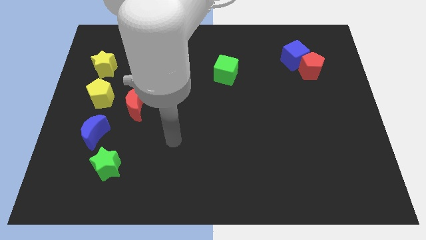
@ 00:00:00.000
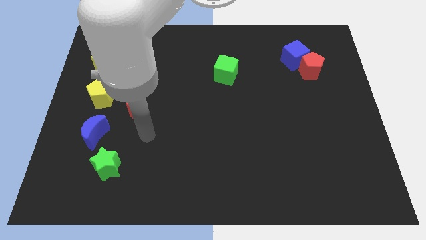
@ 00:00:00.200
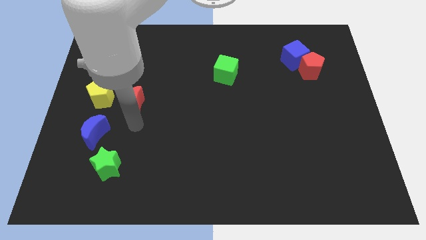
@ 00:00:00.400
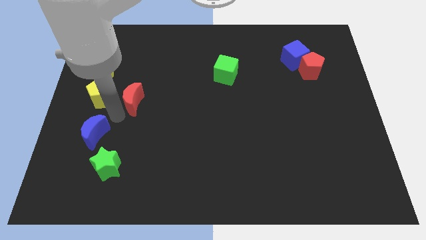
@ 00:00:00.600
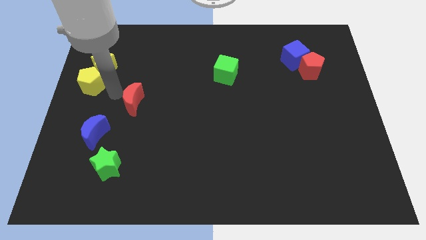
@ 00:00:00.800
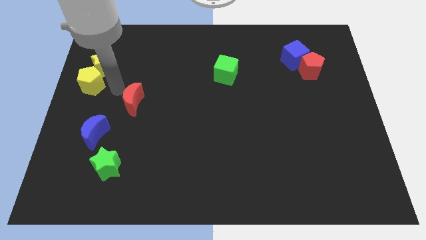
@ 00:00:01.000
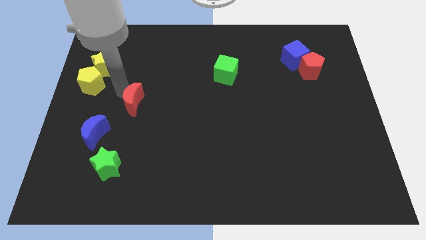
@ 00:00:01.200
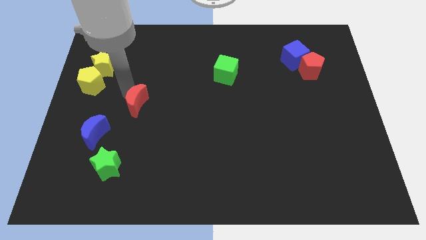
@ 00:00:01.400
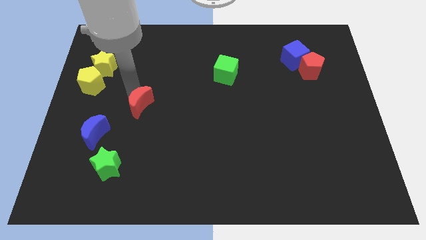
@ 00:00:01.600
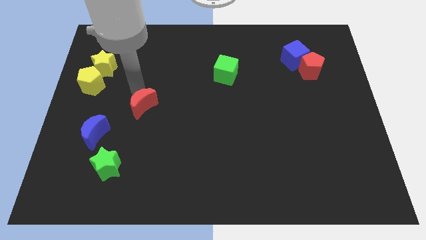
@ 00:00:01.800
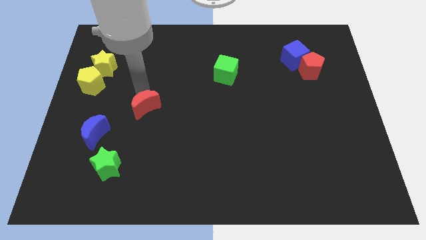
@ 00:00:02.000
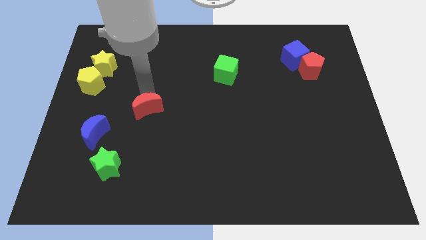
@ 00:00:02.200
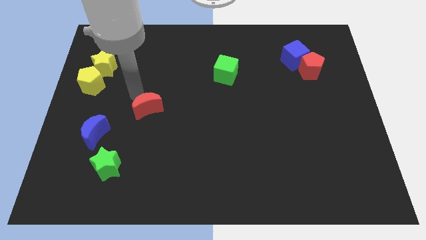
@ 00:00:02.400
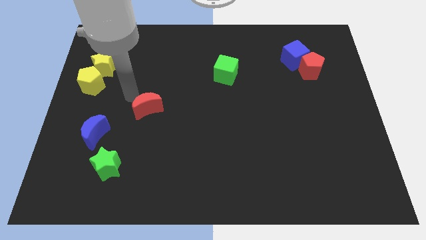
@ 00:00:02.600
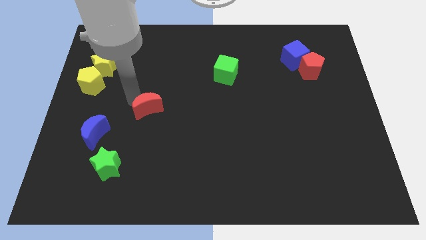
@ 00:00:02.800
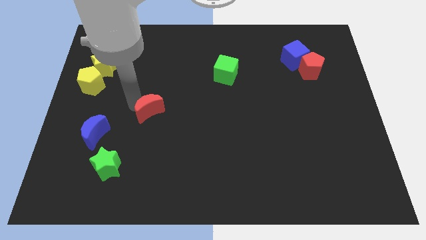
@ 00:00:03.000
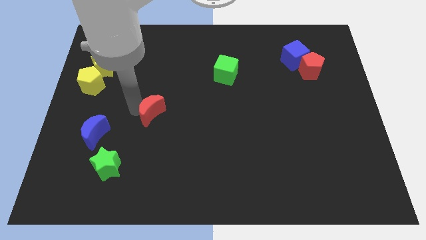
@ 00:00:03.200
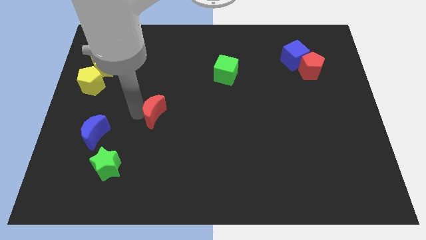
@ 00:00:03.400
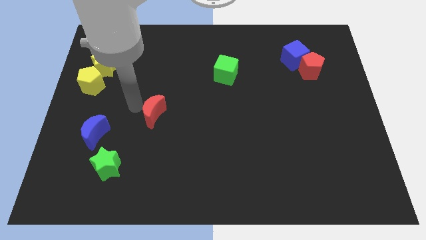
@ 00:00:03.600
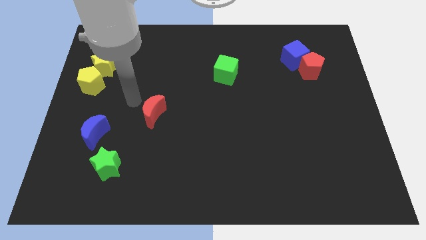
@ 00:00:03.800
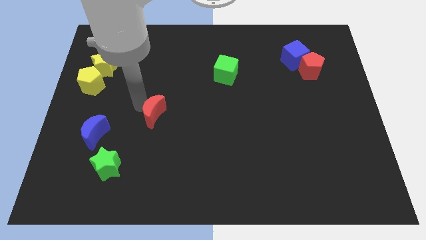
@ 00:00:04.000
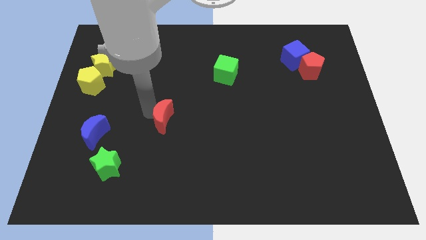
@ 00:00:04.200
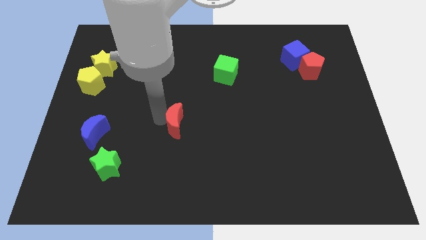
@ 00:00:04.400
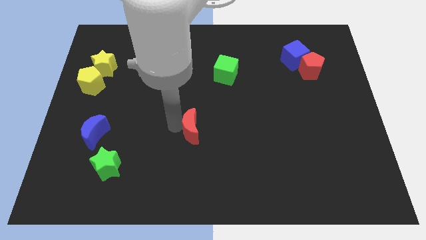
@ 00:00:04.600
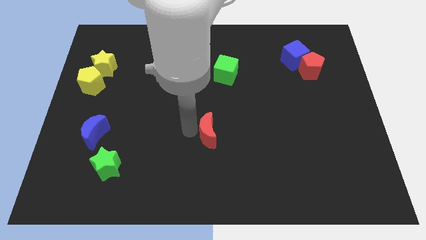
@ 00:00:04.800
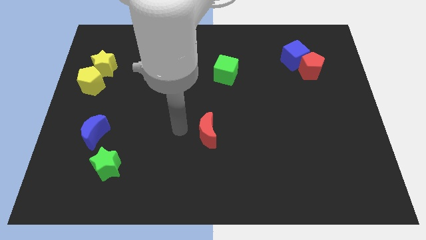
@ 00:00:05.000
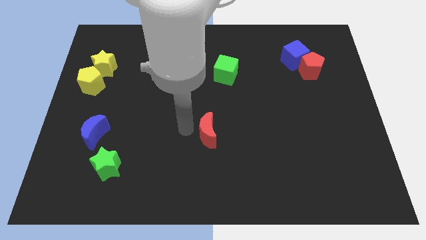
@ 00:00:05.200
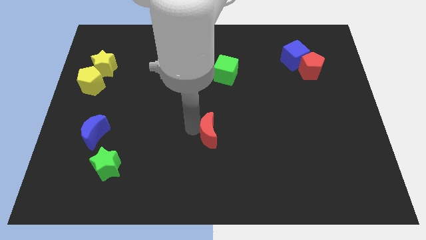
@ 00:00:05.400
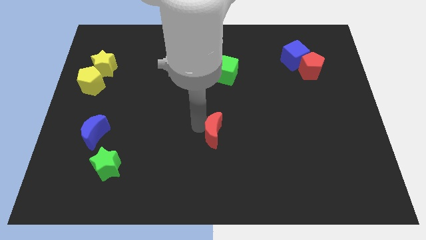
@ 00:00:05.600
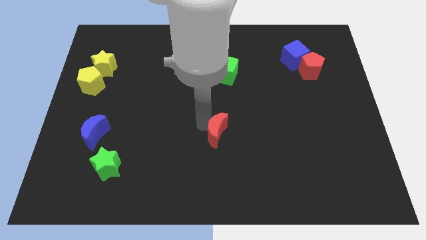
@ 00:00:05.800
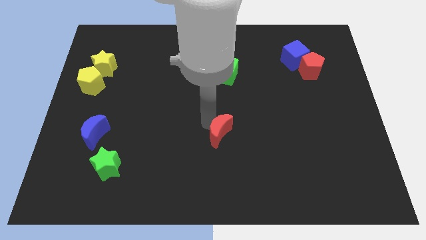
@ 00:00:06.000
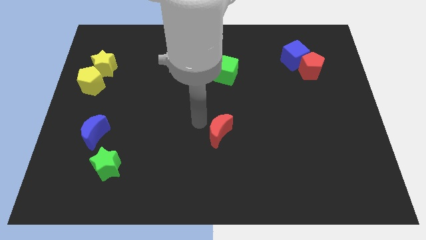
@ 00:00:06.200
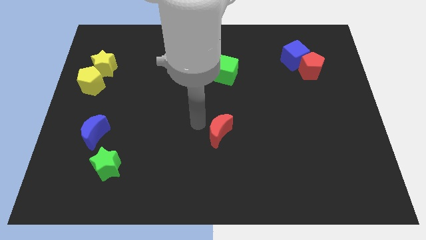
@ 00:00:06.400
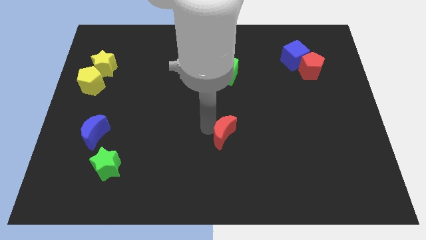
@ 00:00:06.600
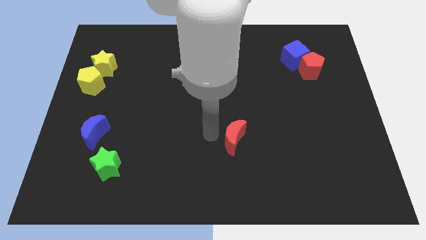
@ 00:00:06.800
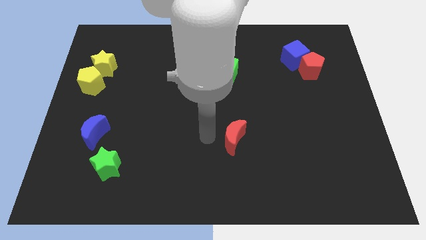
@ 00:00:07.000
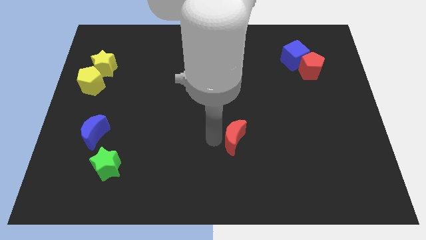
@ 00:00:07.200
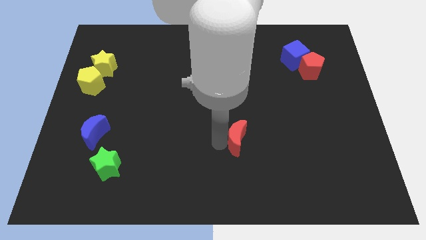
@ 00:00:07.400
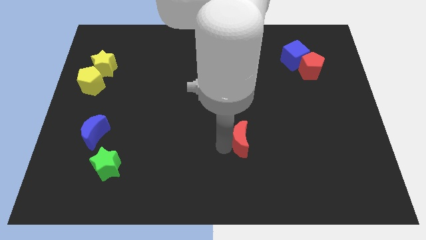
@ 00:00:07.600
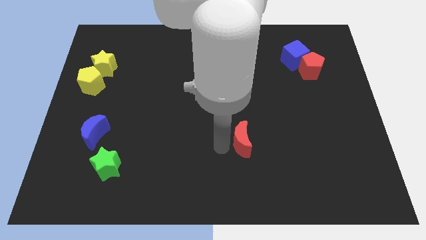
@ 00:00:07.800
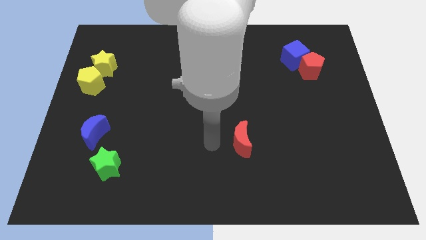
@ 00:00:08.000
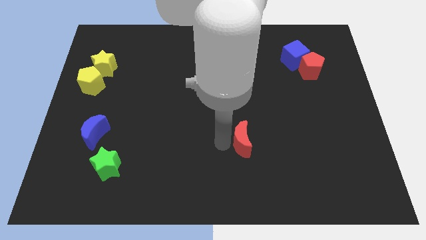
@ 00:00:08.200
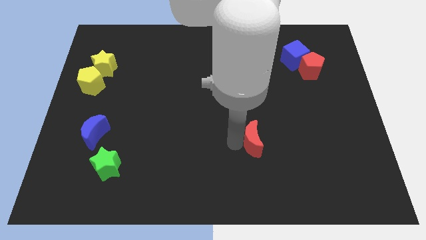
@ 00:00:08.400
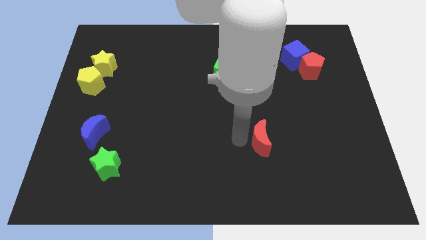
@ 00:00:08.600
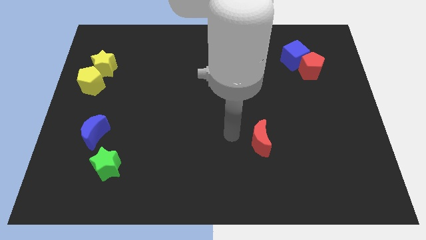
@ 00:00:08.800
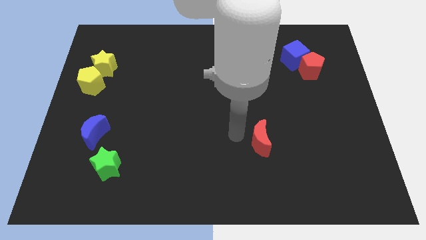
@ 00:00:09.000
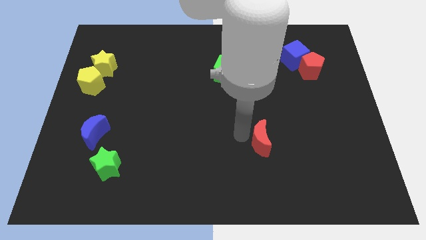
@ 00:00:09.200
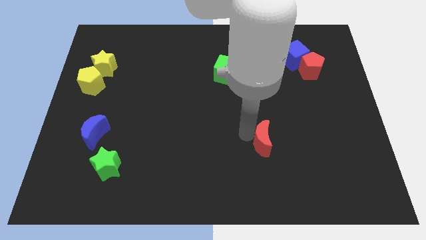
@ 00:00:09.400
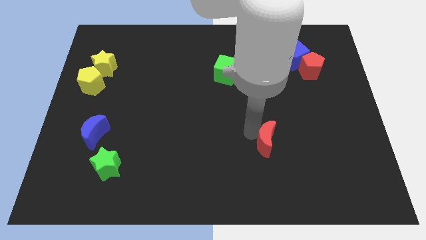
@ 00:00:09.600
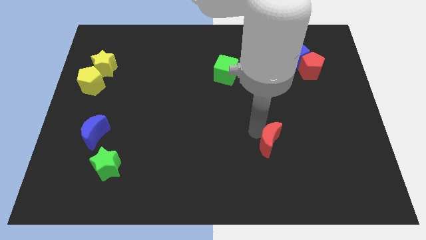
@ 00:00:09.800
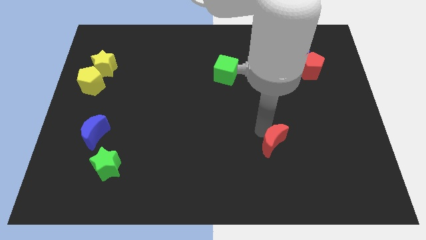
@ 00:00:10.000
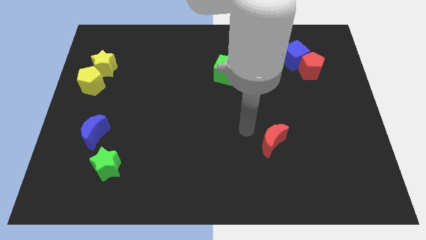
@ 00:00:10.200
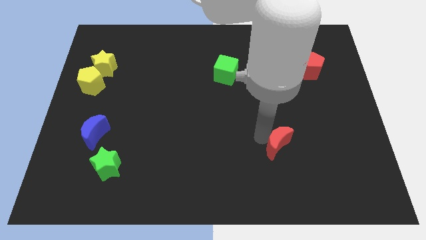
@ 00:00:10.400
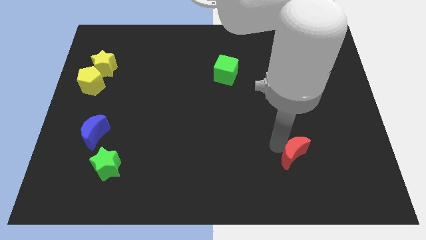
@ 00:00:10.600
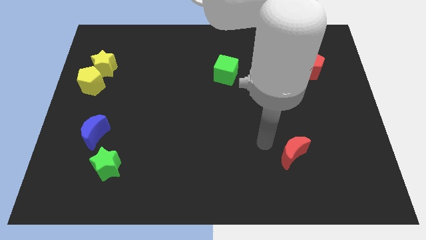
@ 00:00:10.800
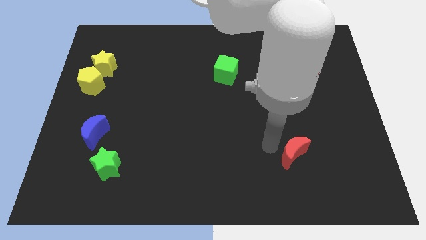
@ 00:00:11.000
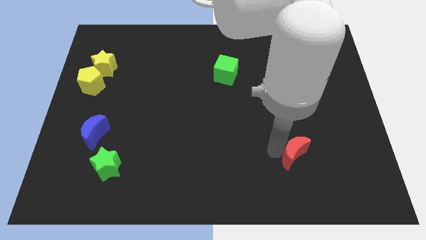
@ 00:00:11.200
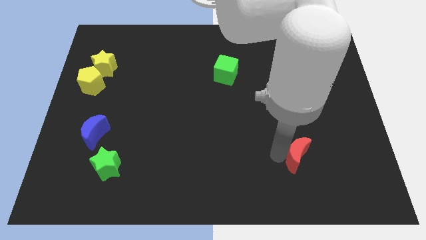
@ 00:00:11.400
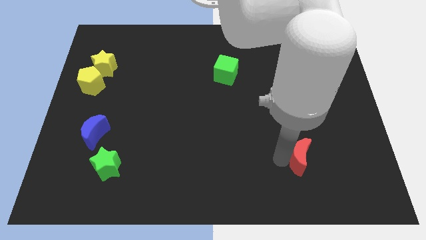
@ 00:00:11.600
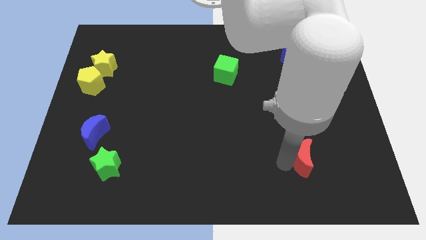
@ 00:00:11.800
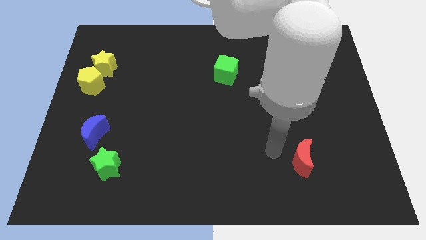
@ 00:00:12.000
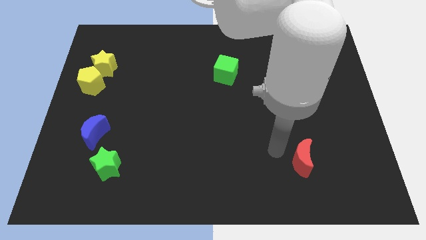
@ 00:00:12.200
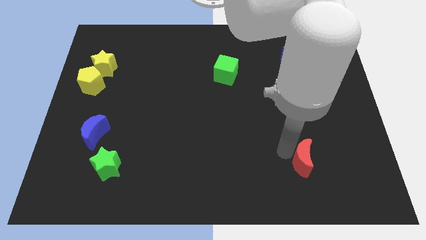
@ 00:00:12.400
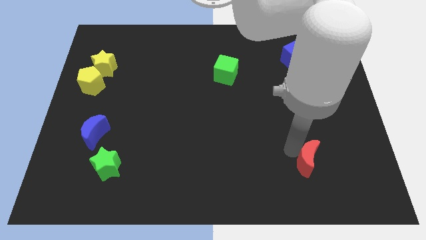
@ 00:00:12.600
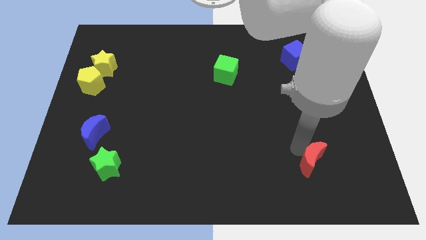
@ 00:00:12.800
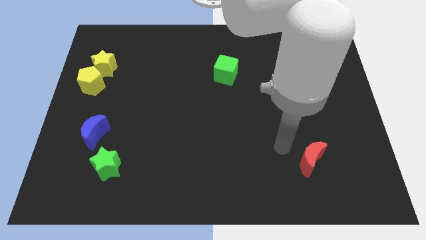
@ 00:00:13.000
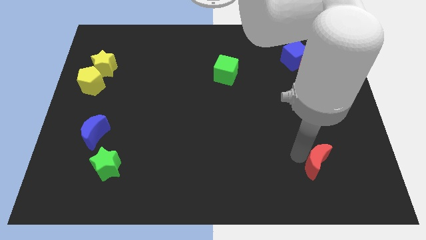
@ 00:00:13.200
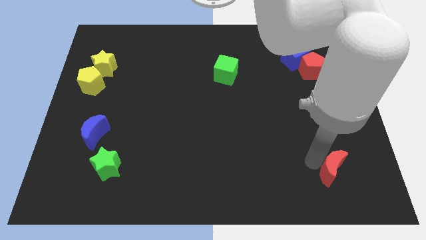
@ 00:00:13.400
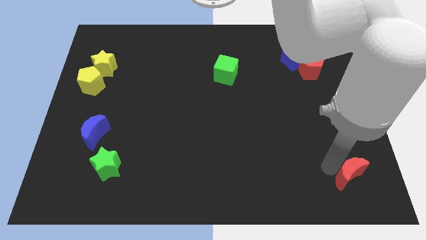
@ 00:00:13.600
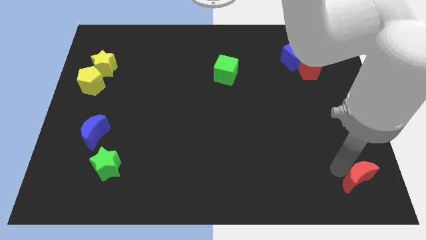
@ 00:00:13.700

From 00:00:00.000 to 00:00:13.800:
put the red moon to the lower right corner
